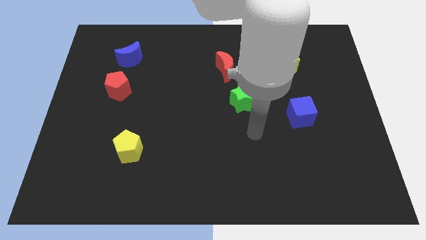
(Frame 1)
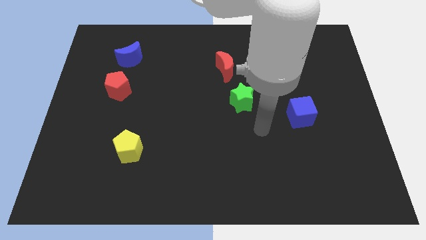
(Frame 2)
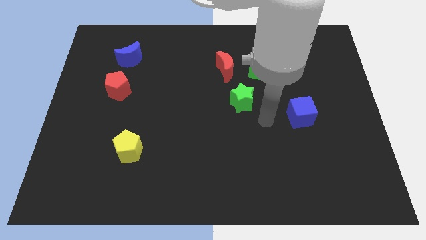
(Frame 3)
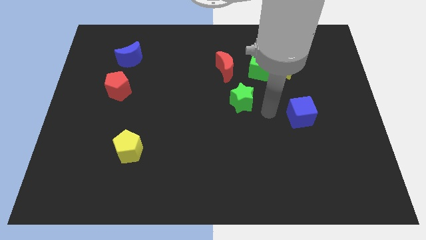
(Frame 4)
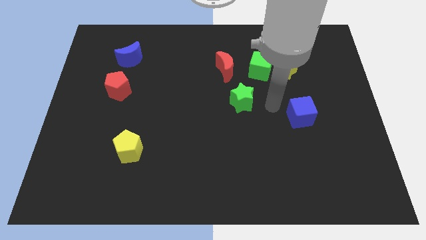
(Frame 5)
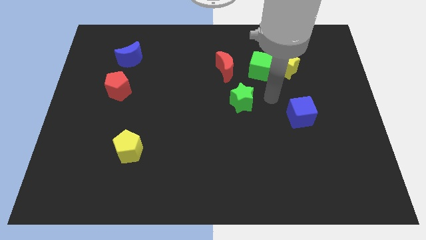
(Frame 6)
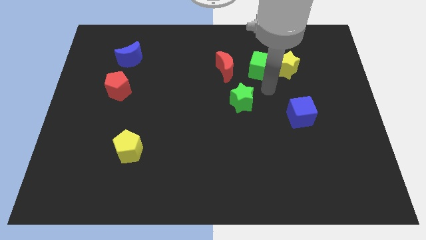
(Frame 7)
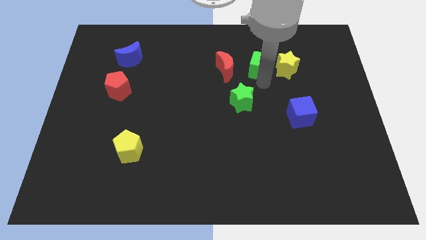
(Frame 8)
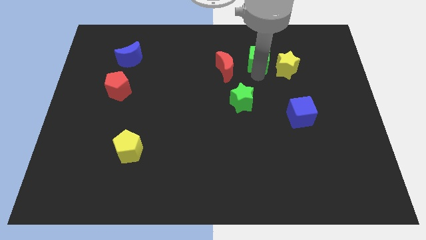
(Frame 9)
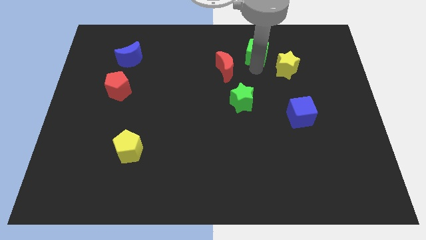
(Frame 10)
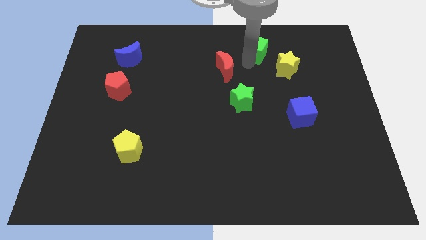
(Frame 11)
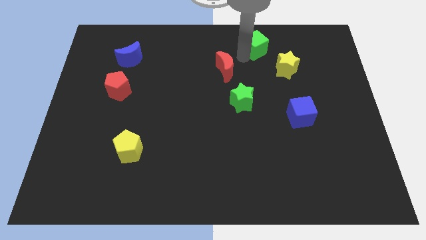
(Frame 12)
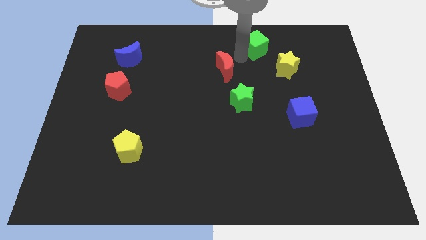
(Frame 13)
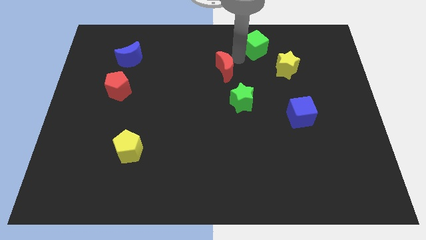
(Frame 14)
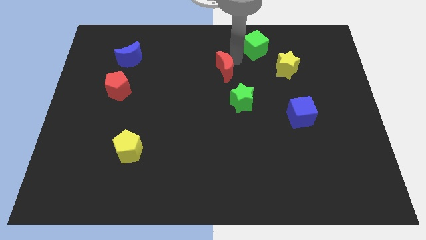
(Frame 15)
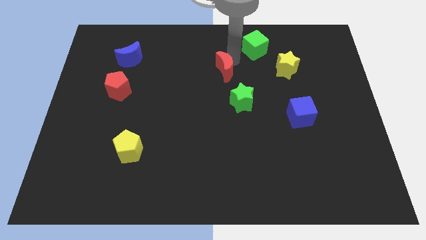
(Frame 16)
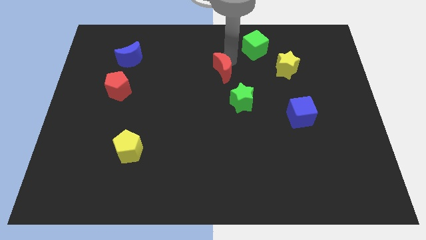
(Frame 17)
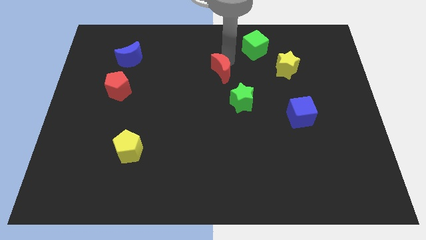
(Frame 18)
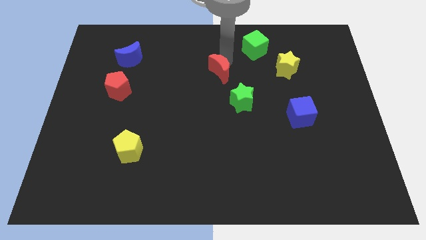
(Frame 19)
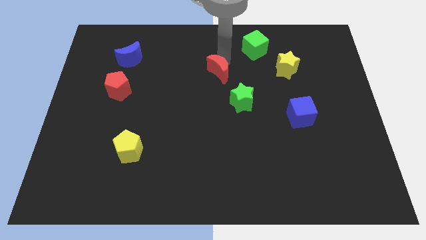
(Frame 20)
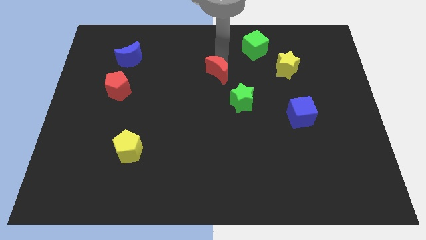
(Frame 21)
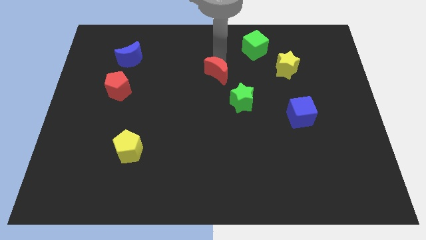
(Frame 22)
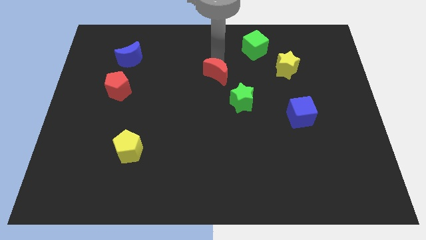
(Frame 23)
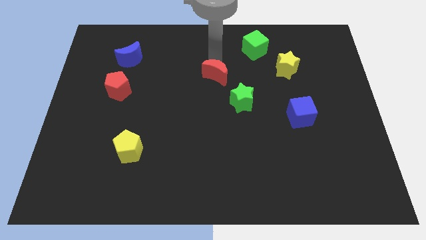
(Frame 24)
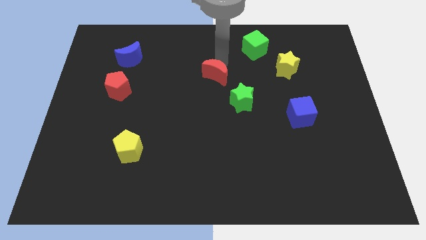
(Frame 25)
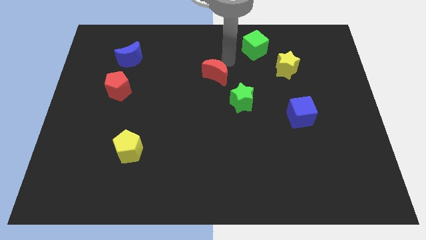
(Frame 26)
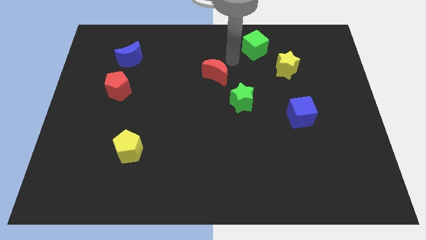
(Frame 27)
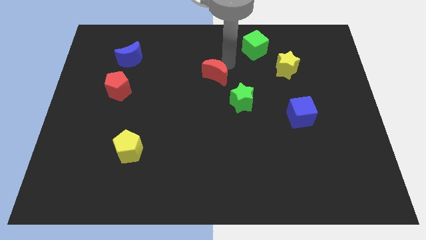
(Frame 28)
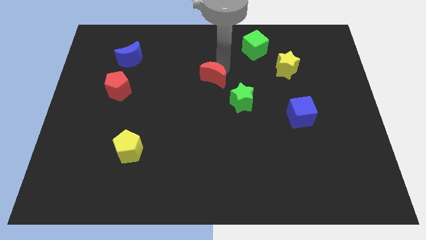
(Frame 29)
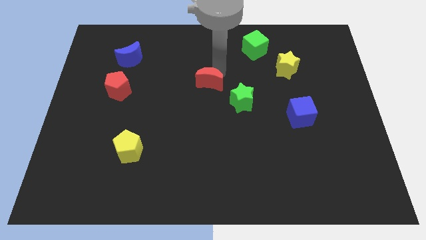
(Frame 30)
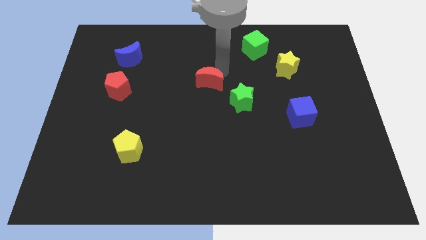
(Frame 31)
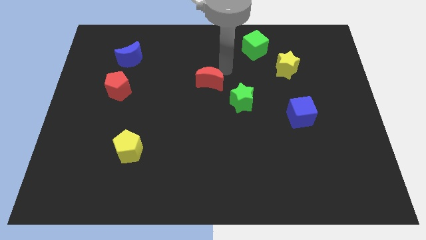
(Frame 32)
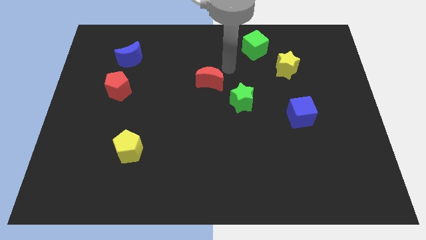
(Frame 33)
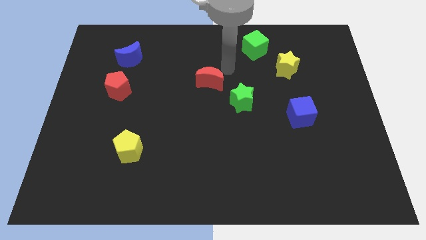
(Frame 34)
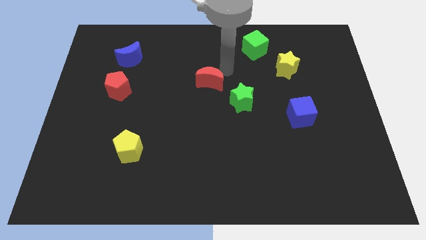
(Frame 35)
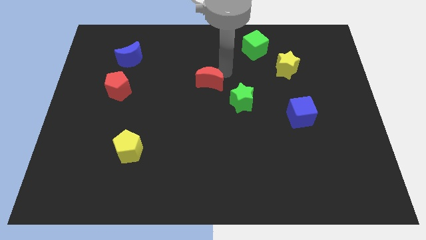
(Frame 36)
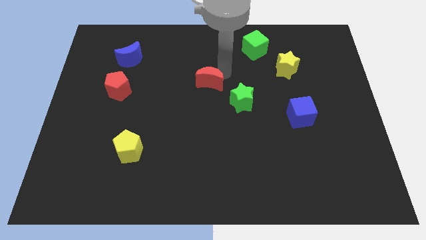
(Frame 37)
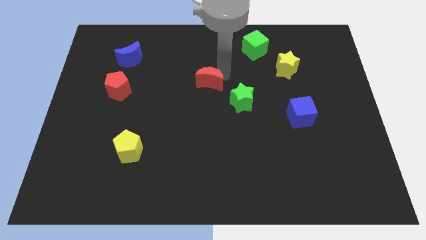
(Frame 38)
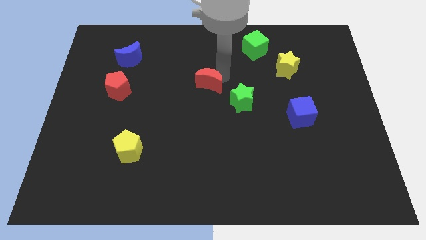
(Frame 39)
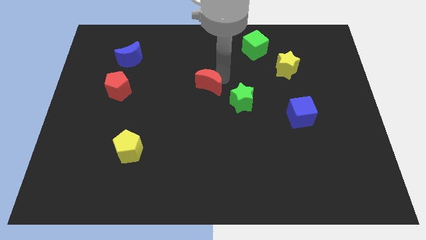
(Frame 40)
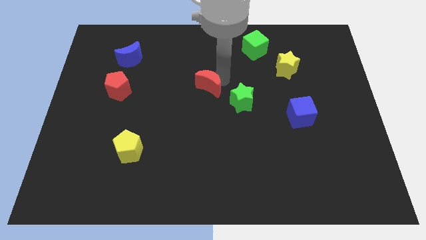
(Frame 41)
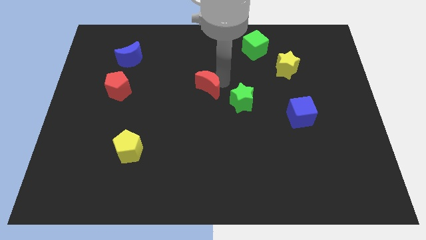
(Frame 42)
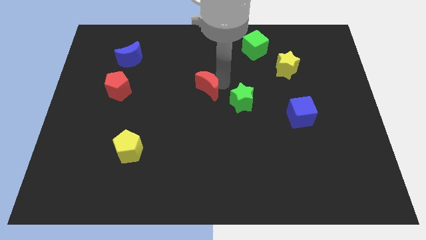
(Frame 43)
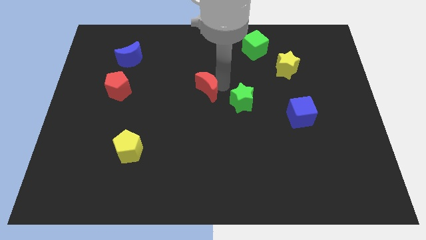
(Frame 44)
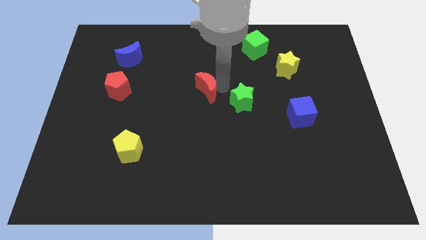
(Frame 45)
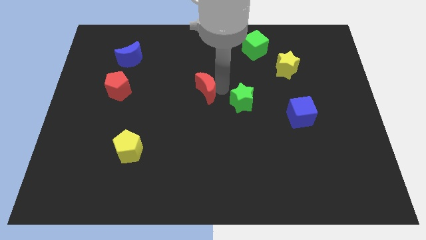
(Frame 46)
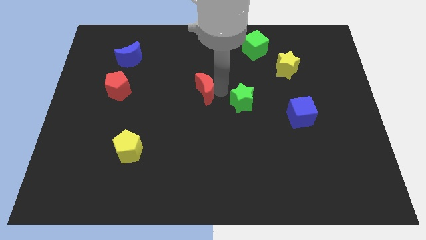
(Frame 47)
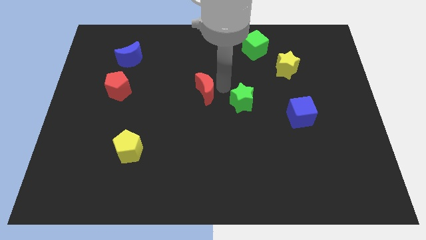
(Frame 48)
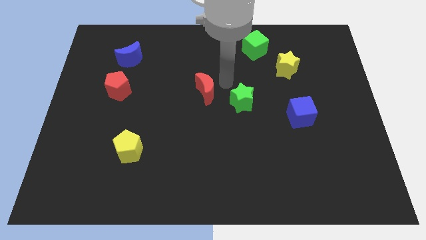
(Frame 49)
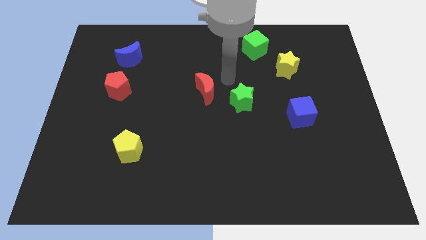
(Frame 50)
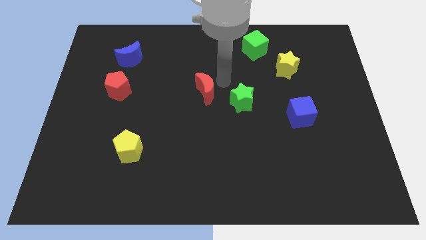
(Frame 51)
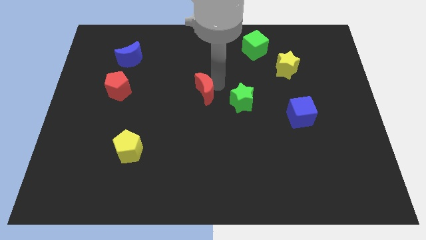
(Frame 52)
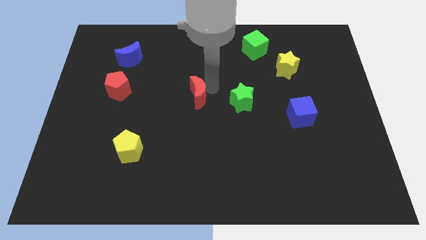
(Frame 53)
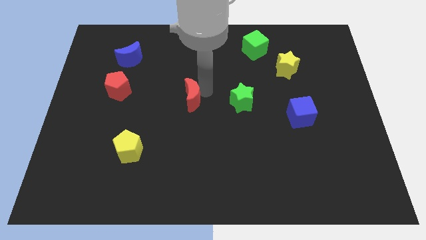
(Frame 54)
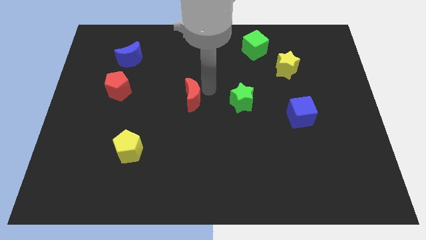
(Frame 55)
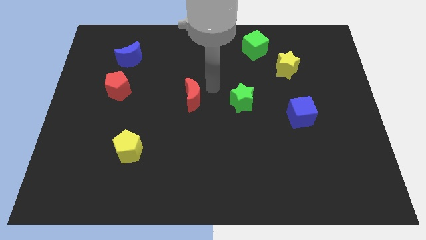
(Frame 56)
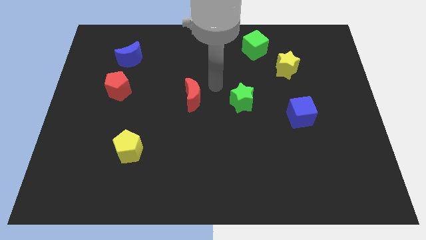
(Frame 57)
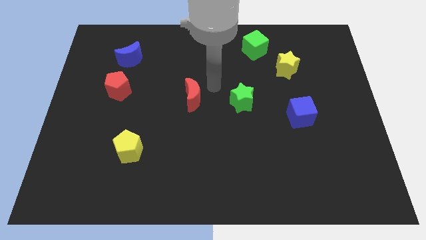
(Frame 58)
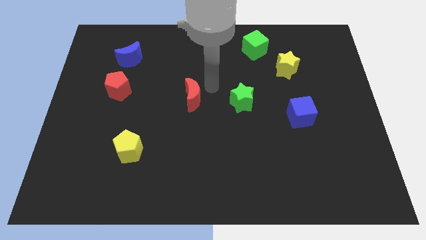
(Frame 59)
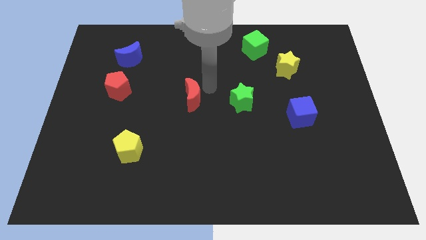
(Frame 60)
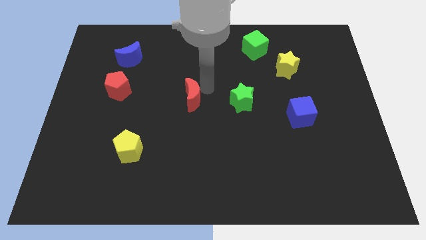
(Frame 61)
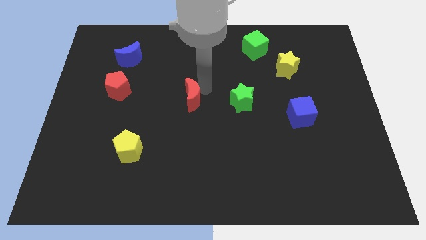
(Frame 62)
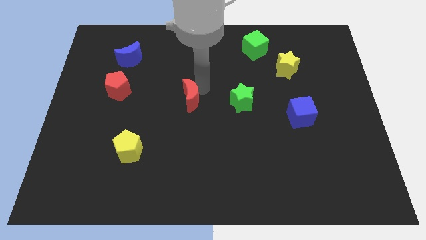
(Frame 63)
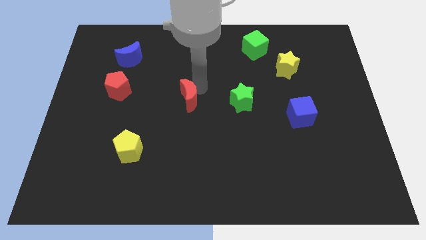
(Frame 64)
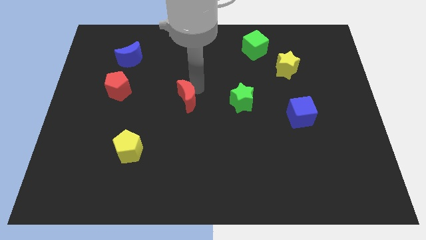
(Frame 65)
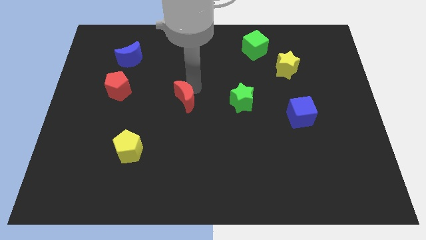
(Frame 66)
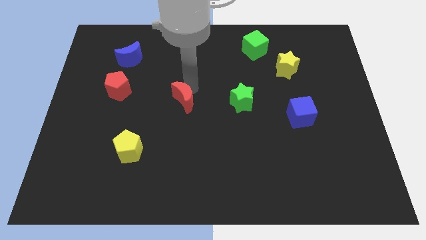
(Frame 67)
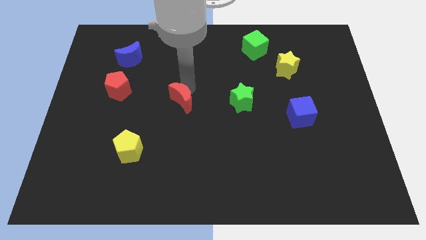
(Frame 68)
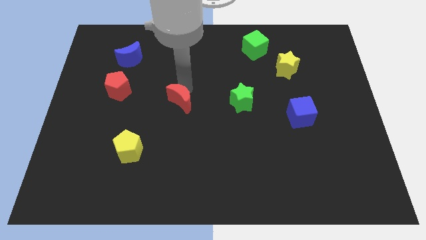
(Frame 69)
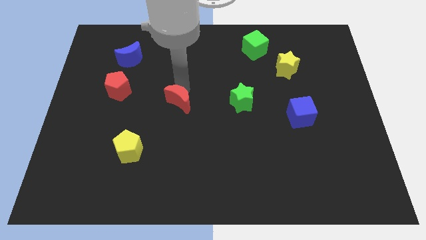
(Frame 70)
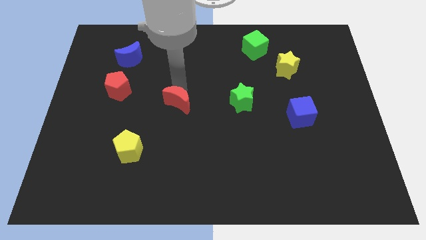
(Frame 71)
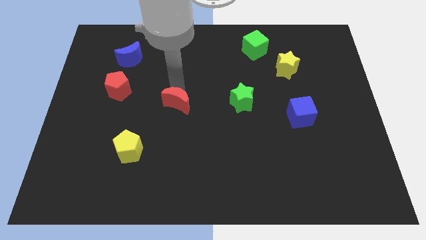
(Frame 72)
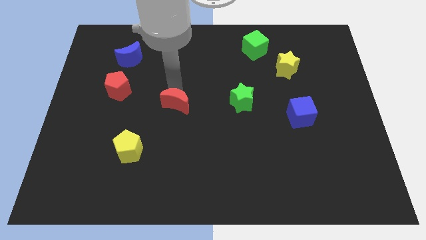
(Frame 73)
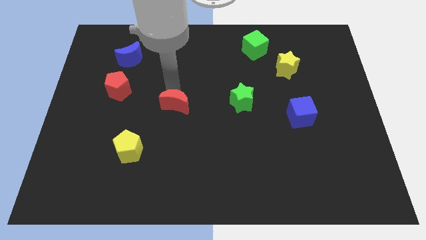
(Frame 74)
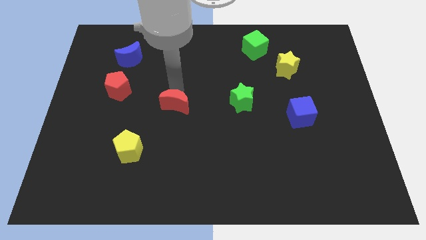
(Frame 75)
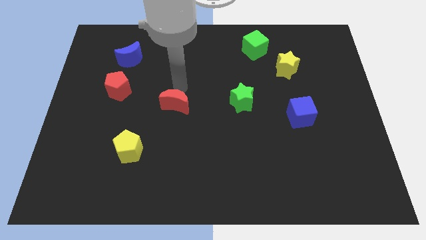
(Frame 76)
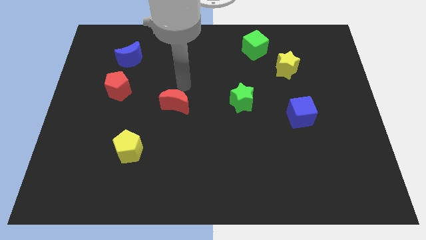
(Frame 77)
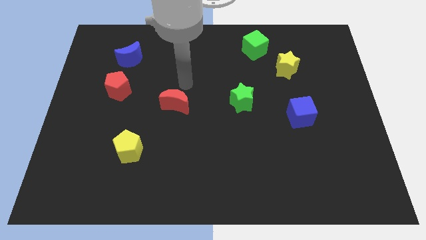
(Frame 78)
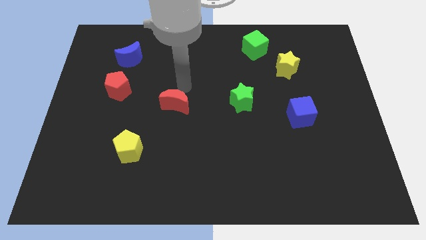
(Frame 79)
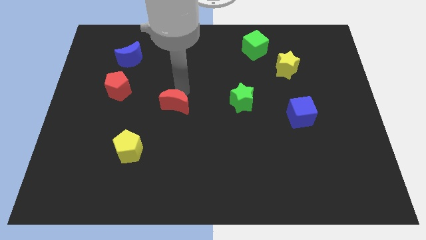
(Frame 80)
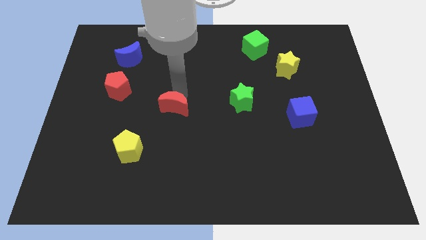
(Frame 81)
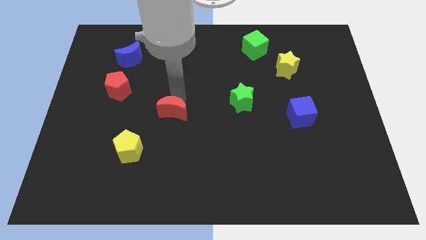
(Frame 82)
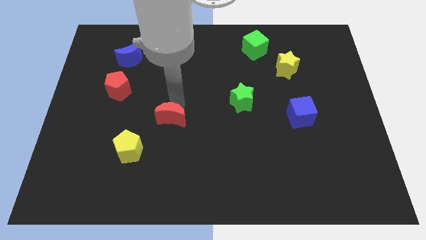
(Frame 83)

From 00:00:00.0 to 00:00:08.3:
slide the red moon to the top right side of the yellow pentagon
